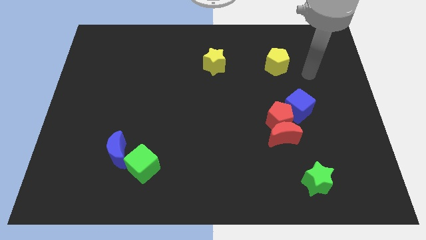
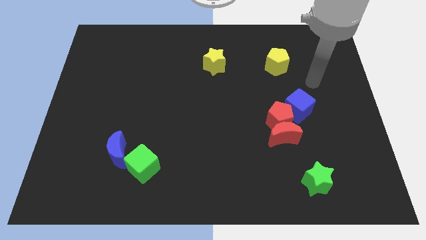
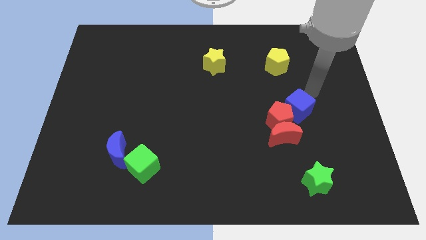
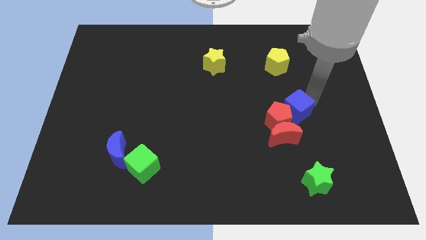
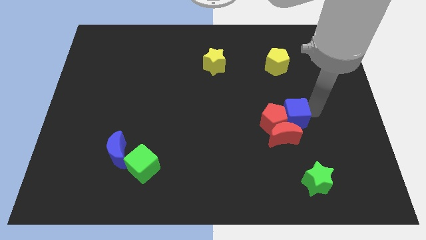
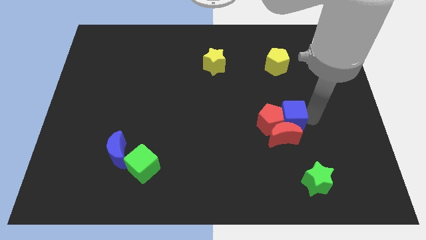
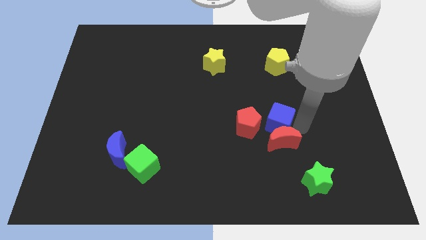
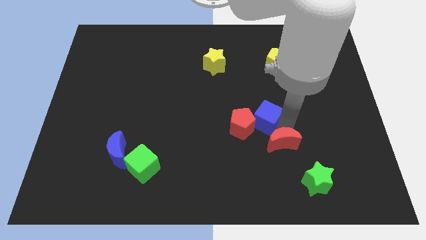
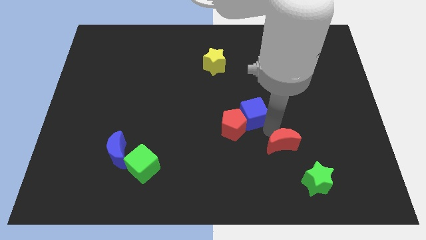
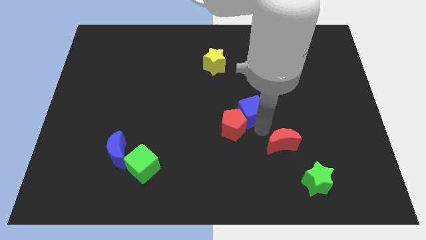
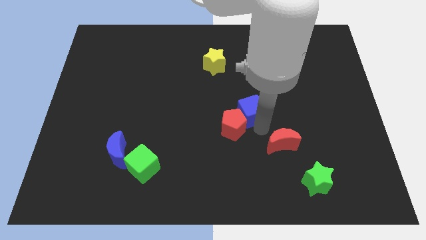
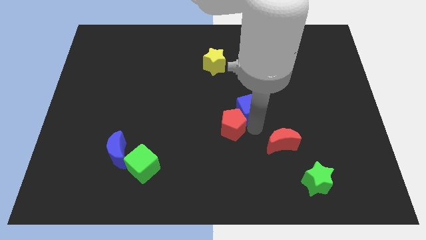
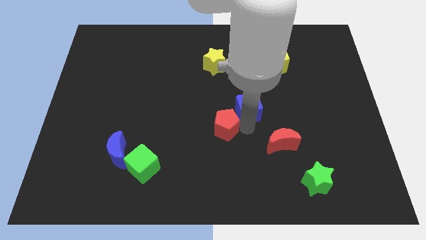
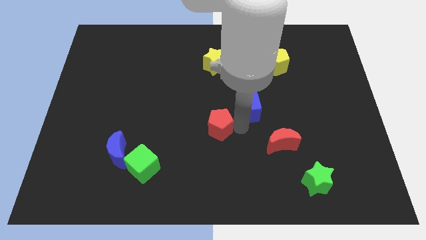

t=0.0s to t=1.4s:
move the red pentagon away from the red moon and blue cube

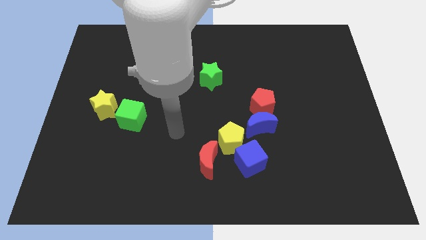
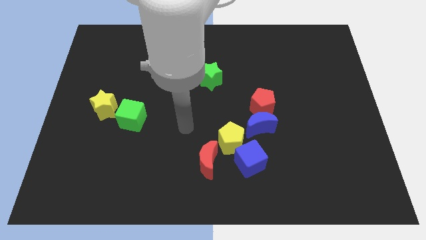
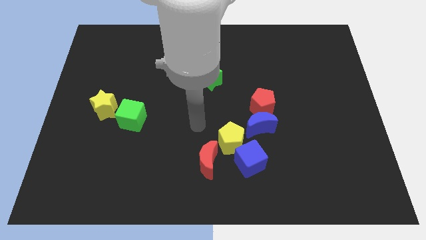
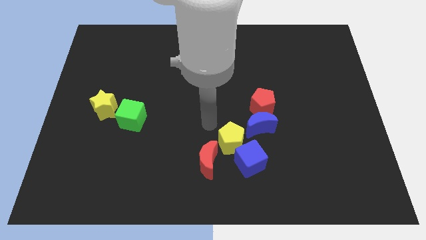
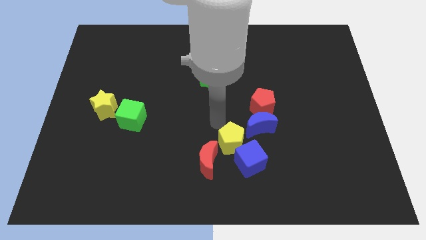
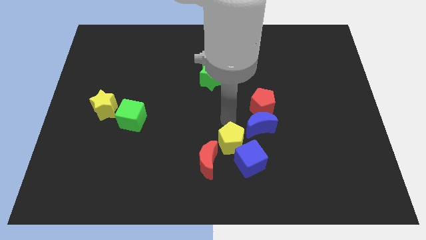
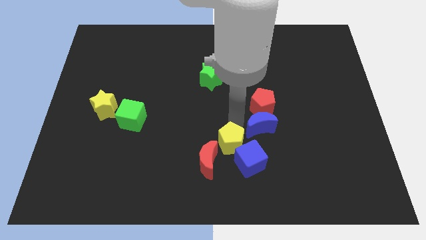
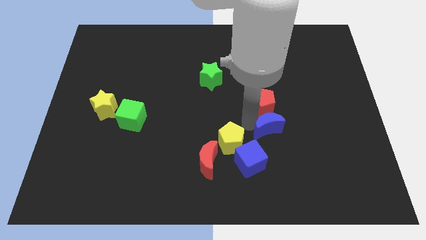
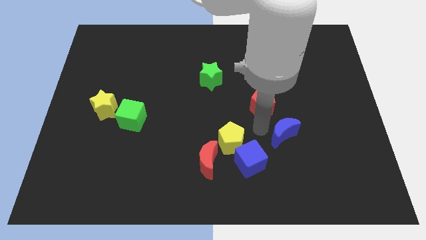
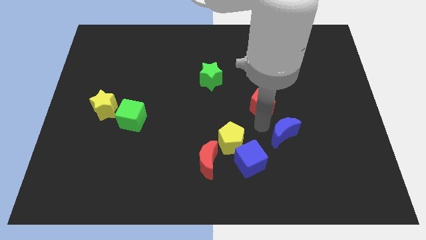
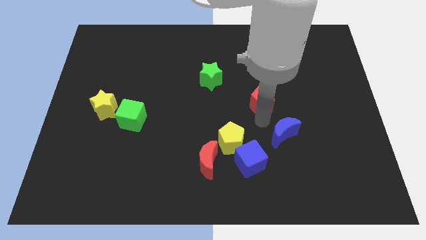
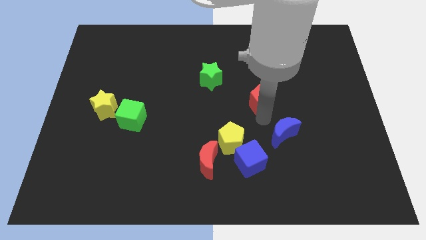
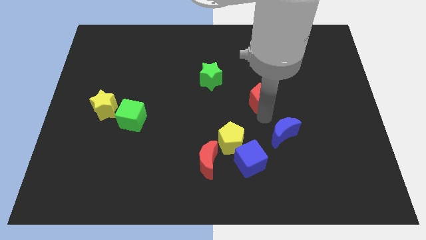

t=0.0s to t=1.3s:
separate the red pentagon from the blue moon

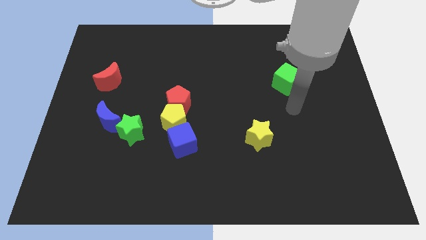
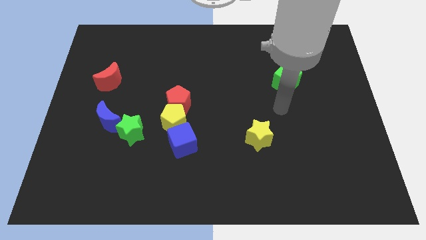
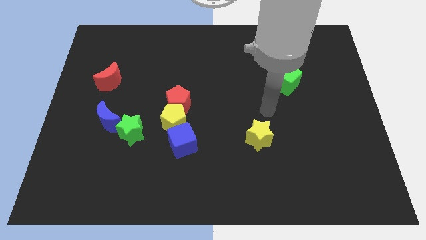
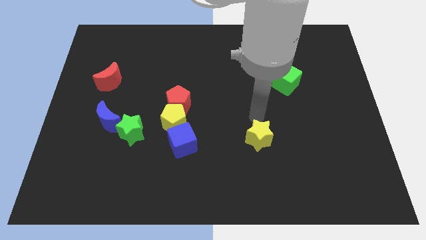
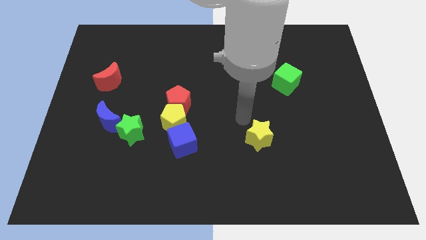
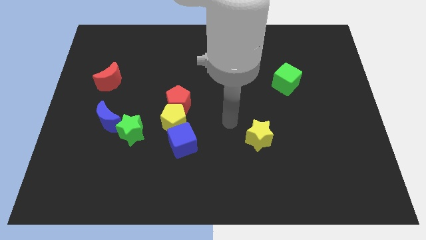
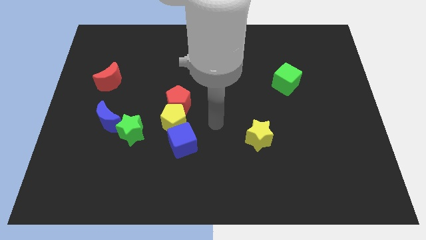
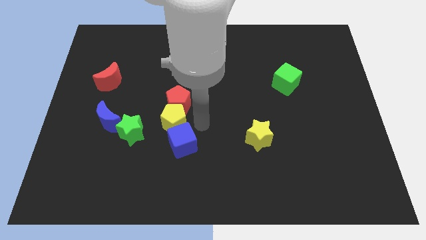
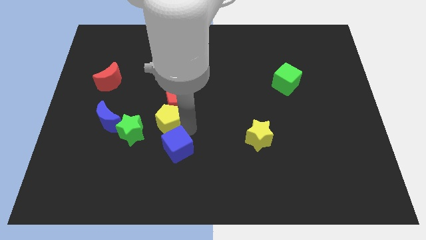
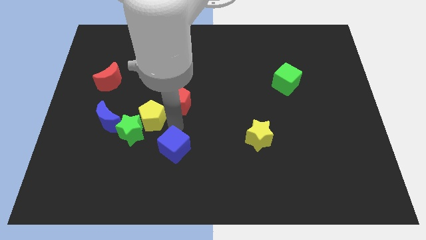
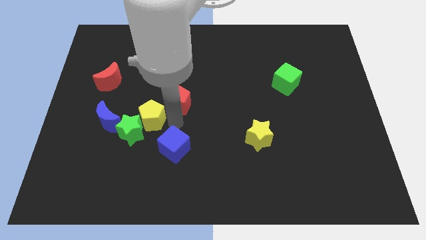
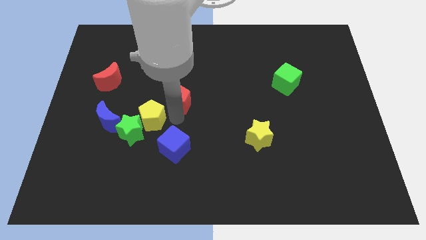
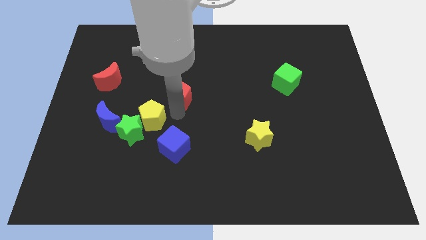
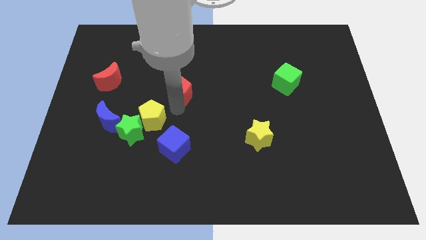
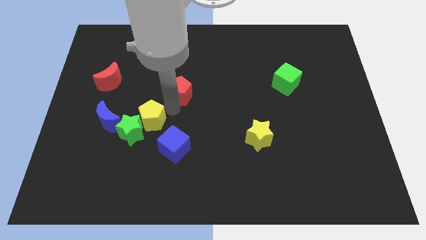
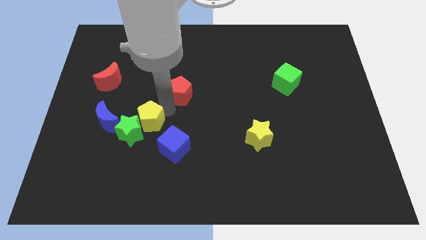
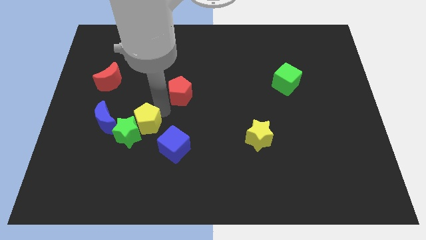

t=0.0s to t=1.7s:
move the red pentagon away from the yellow pentagon

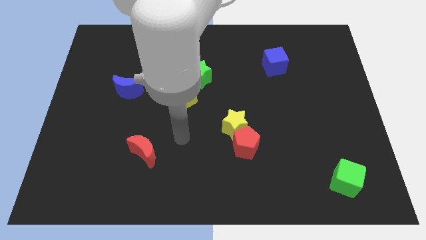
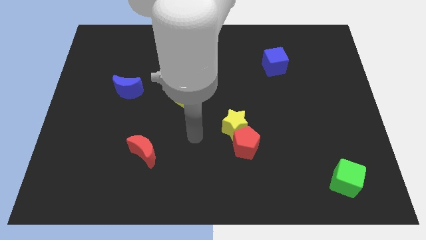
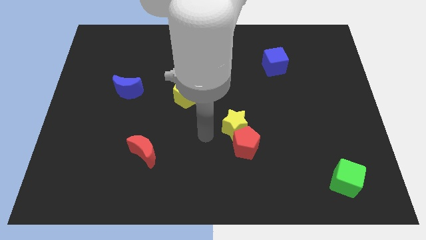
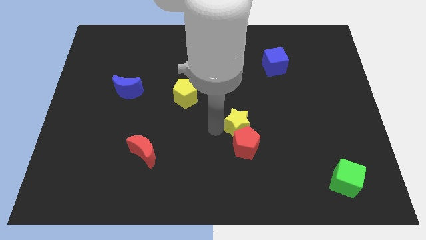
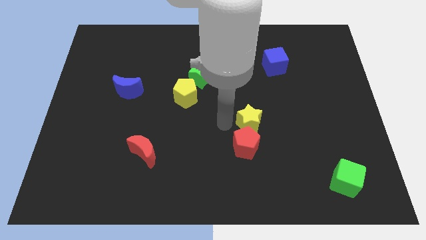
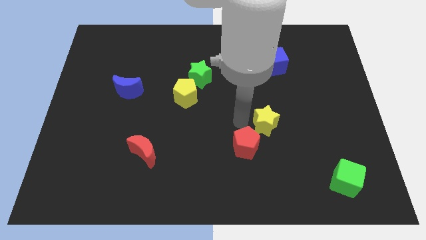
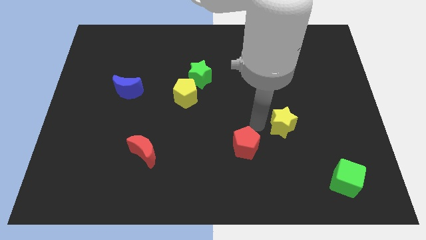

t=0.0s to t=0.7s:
separate the red pentagon from the yellow star

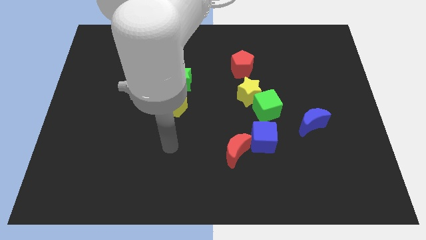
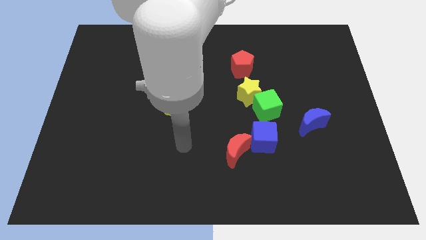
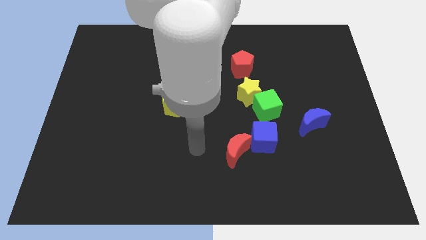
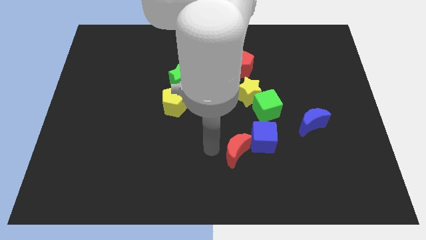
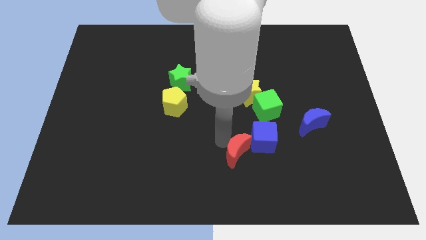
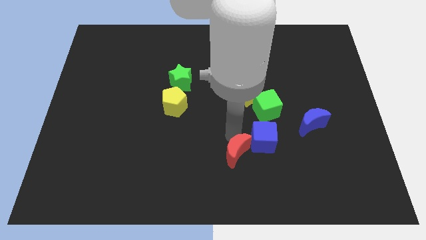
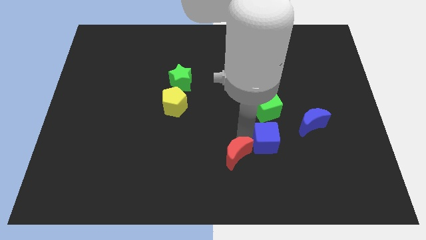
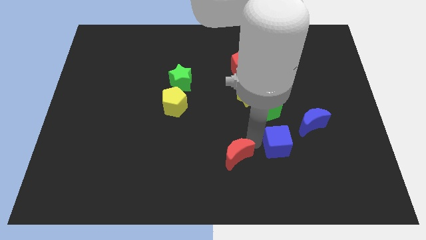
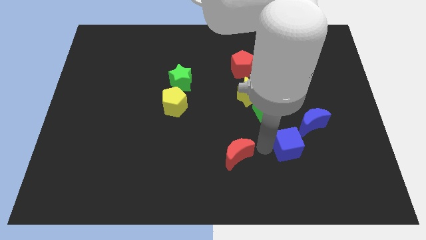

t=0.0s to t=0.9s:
separate the red moon from the blue cube

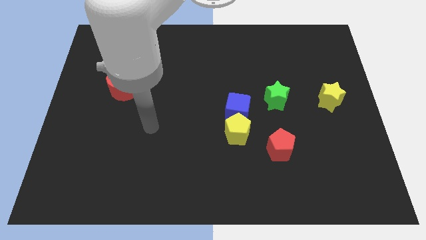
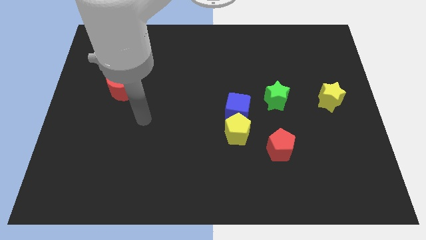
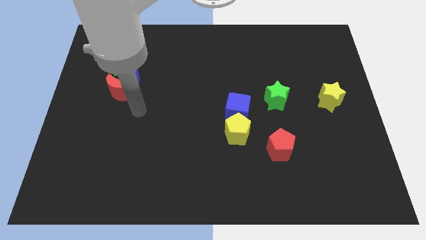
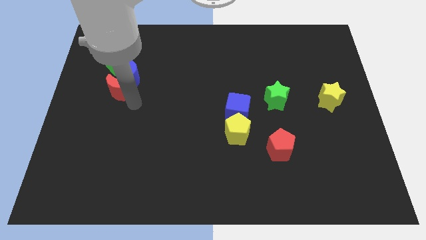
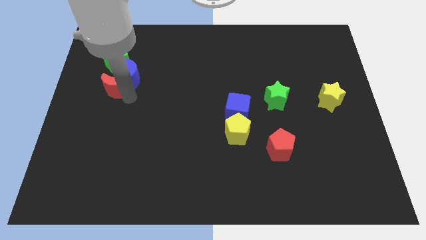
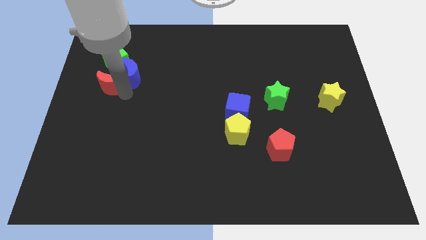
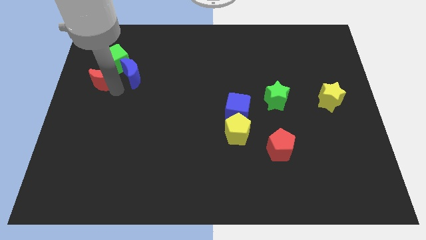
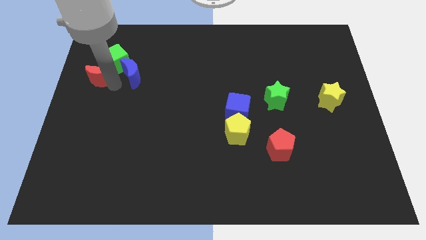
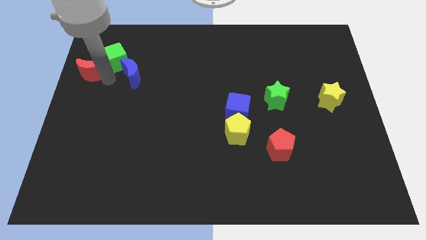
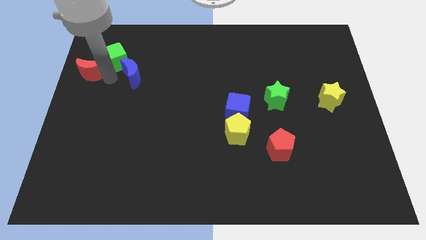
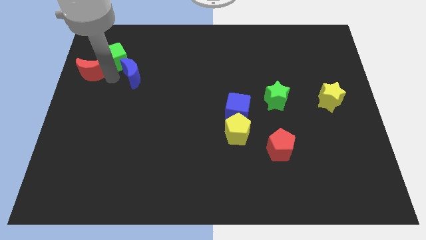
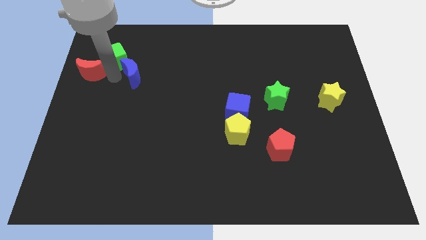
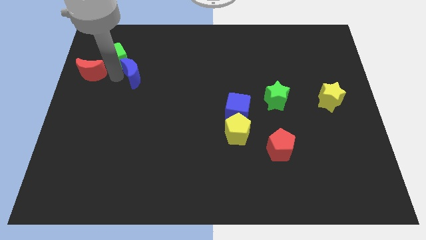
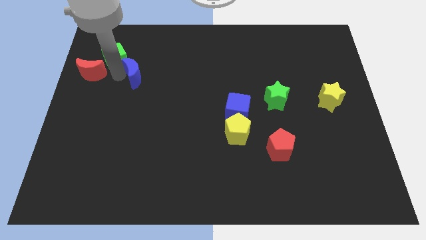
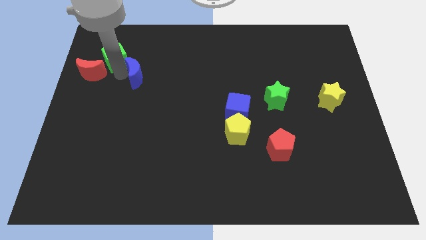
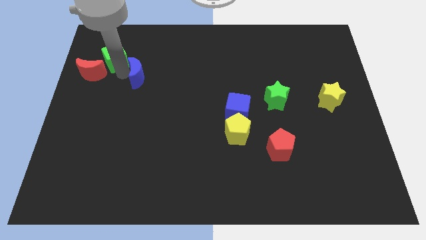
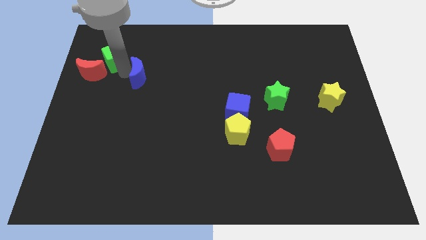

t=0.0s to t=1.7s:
pull the blue moon apart from the red moon and green cube

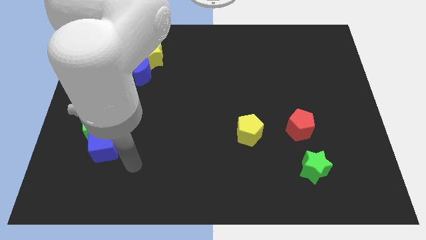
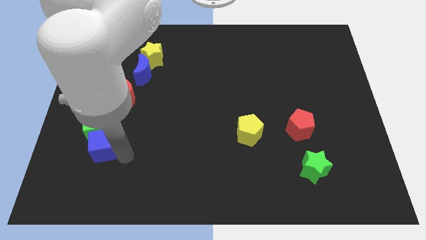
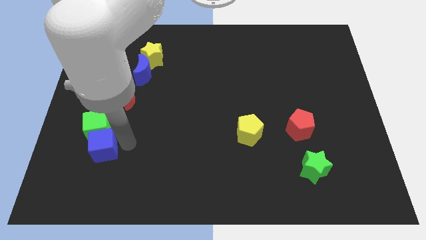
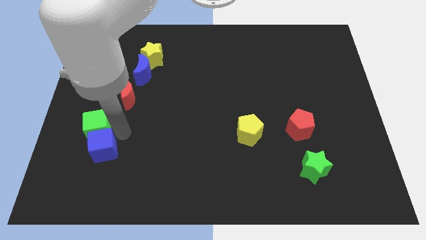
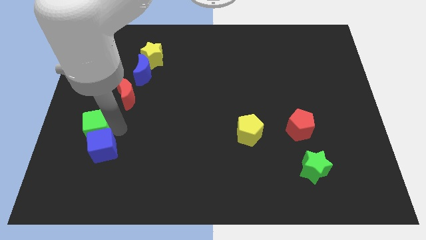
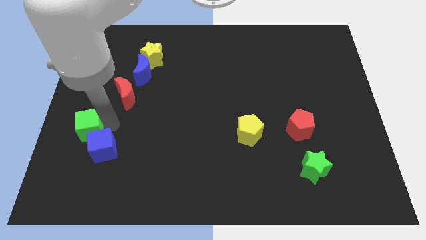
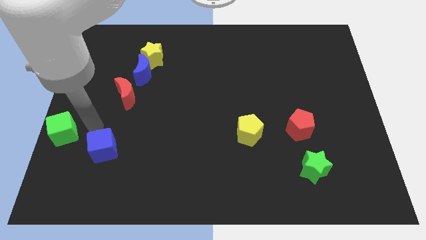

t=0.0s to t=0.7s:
pull the blue cube apart from the green cube

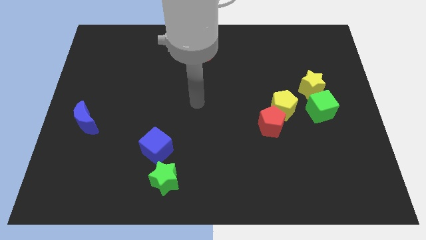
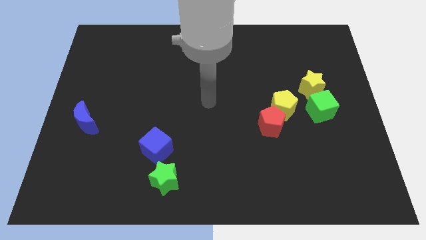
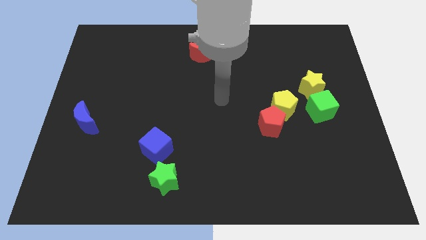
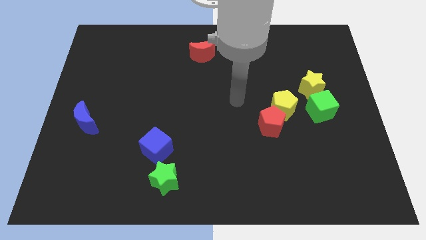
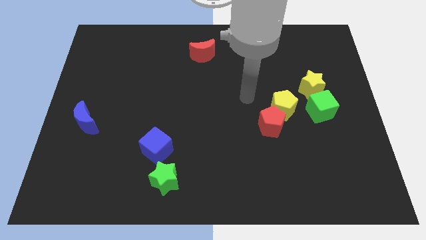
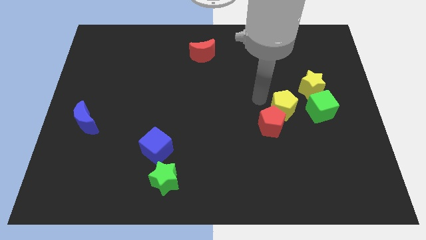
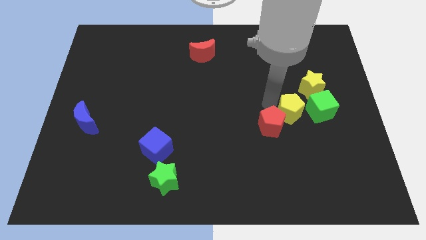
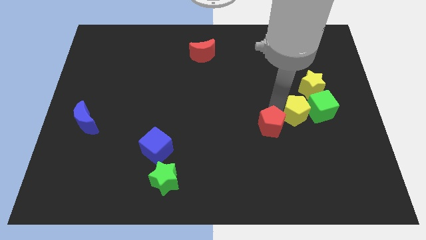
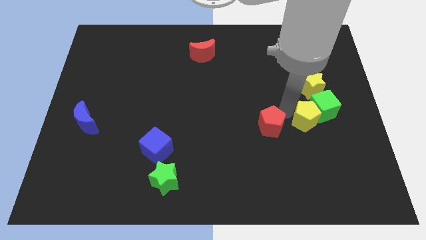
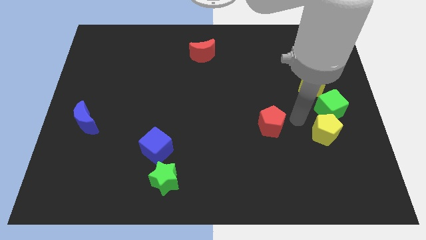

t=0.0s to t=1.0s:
separate the red pentagon from the yellow pentagon
